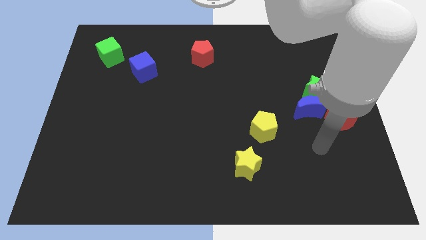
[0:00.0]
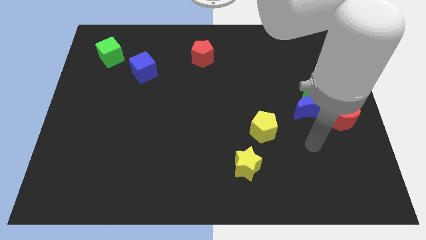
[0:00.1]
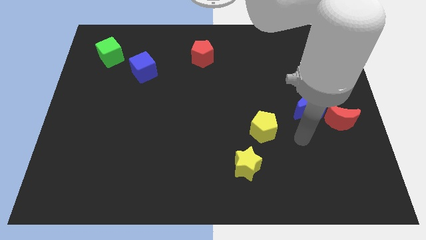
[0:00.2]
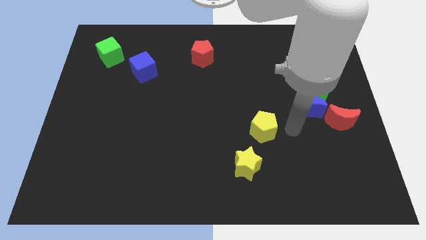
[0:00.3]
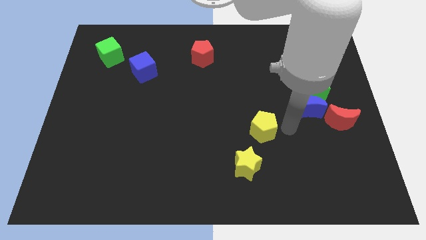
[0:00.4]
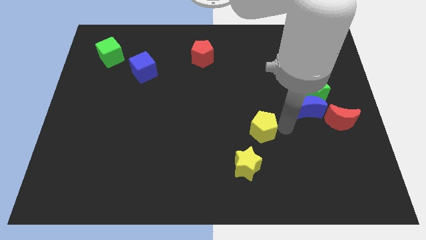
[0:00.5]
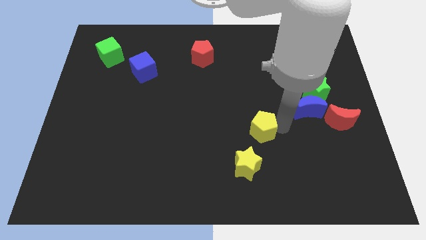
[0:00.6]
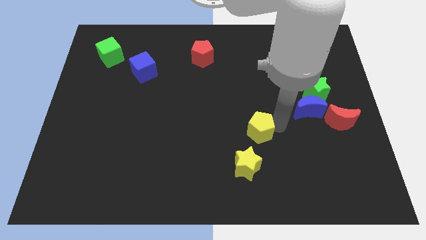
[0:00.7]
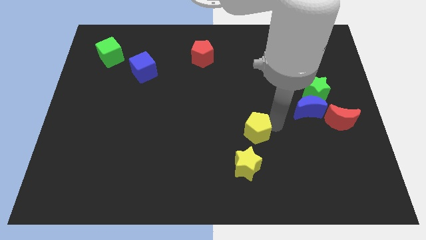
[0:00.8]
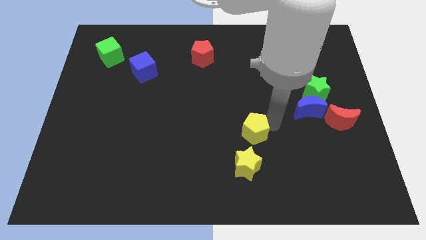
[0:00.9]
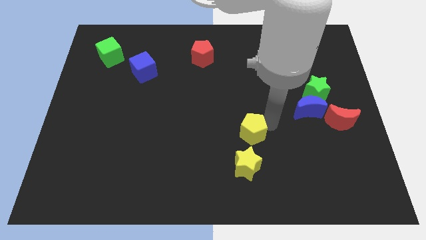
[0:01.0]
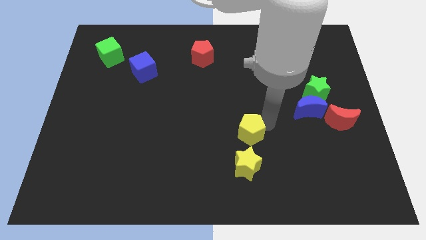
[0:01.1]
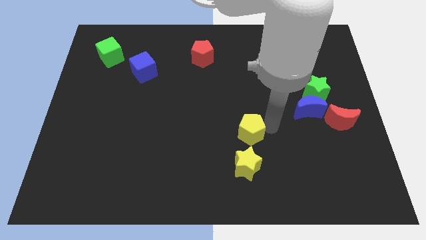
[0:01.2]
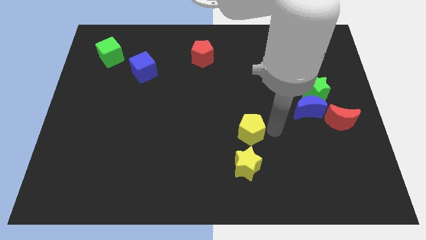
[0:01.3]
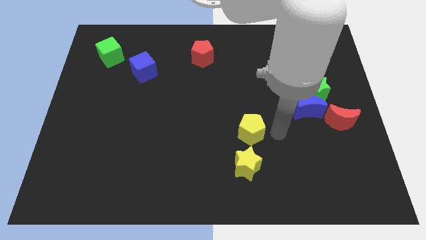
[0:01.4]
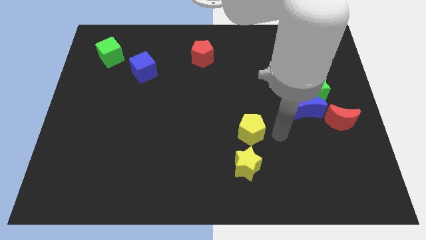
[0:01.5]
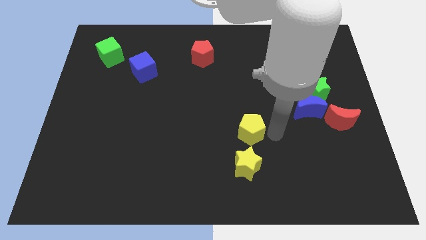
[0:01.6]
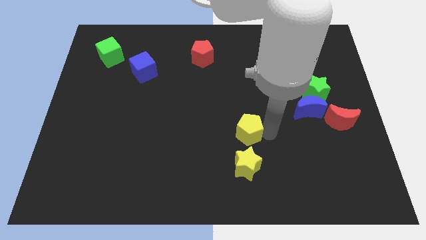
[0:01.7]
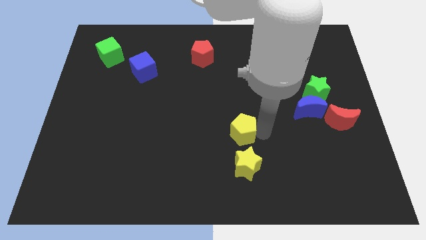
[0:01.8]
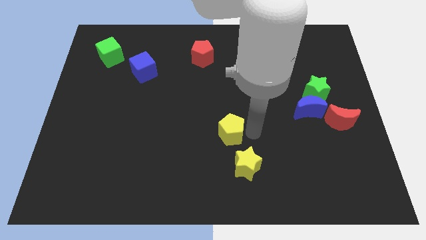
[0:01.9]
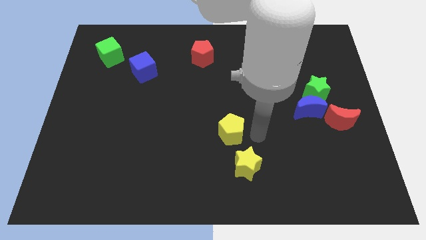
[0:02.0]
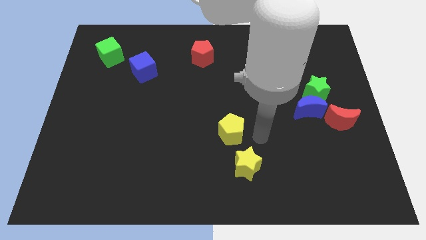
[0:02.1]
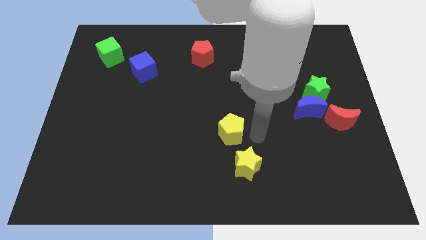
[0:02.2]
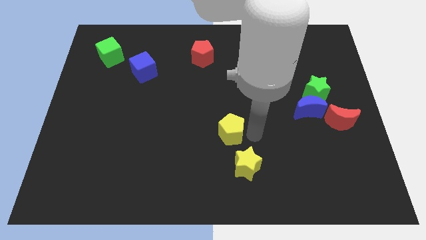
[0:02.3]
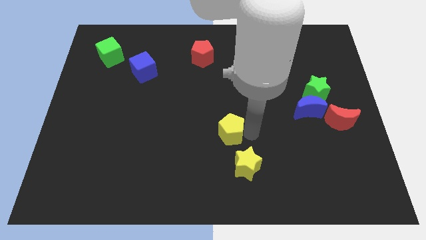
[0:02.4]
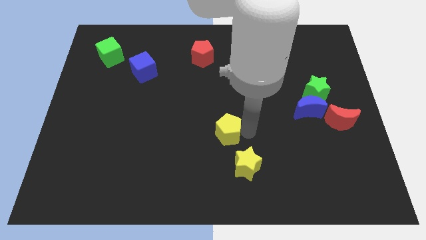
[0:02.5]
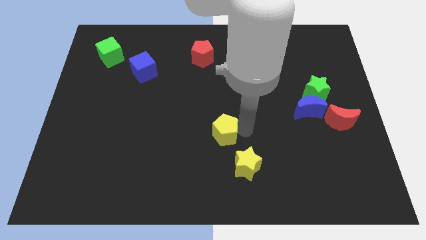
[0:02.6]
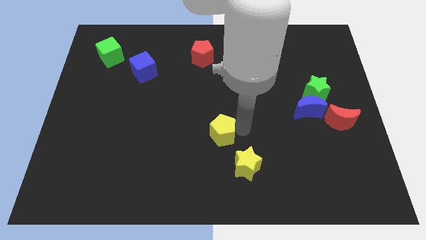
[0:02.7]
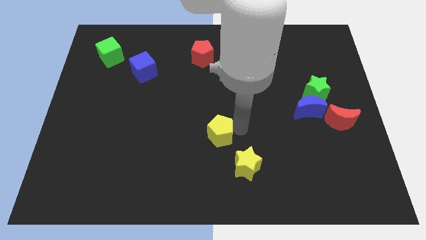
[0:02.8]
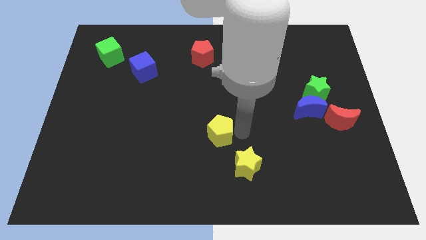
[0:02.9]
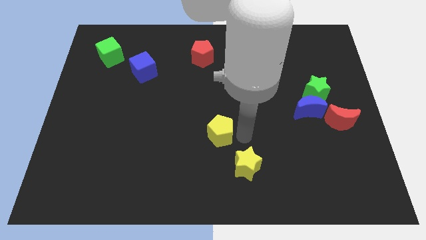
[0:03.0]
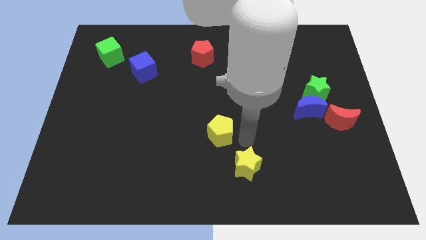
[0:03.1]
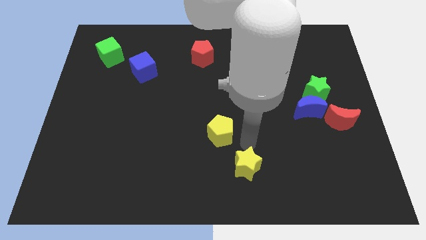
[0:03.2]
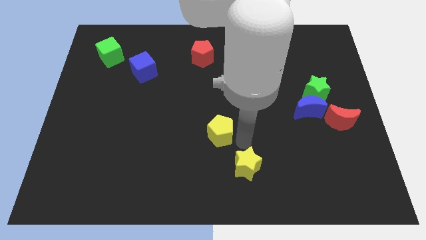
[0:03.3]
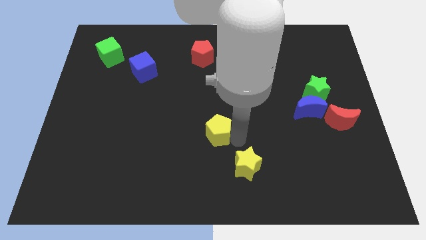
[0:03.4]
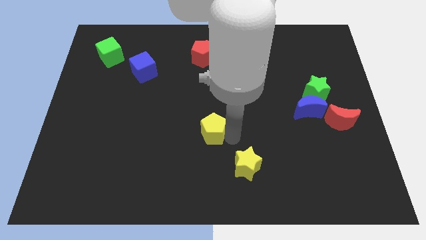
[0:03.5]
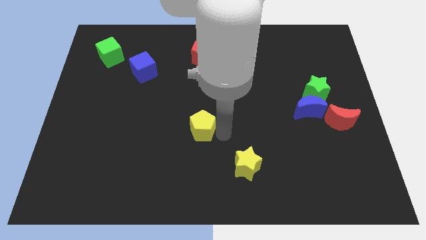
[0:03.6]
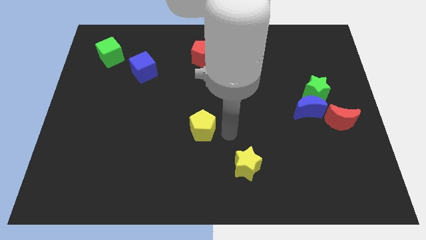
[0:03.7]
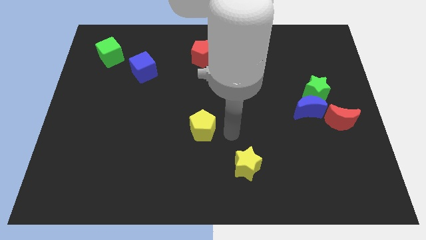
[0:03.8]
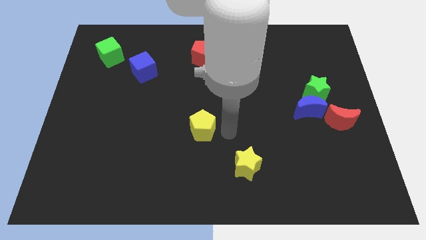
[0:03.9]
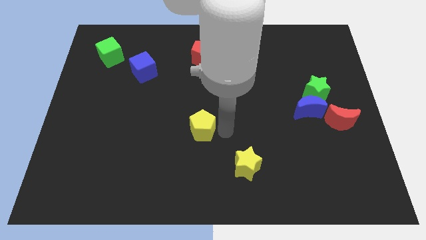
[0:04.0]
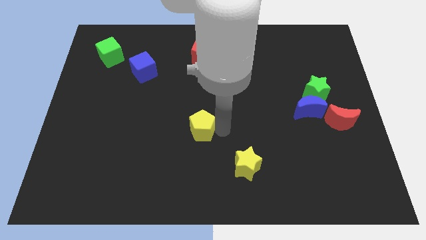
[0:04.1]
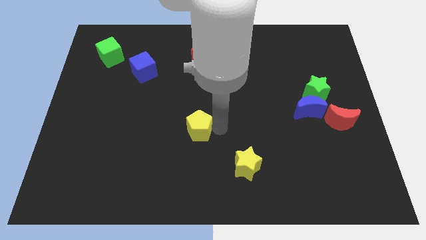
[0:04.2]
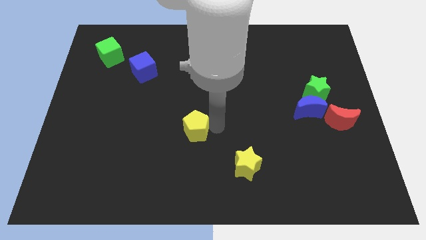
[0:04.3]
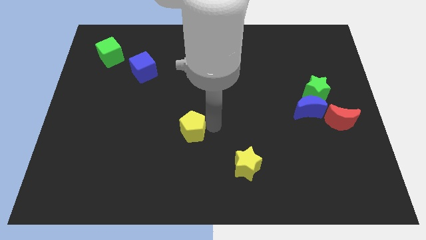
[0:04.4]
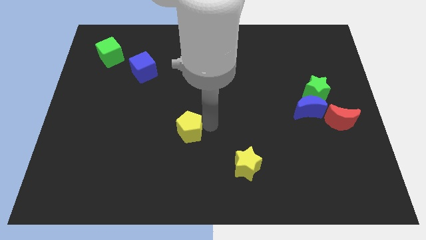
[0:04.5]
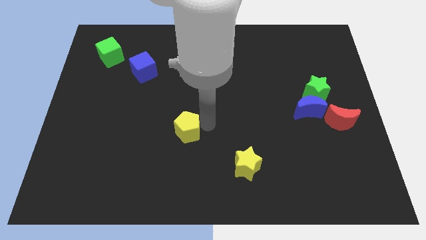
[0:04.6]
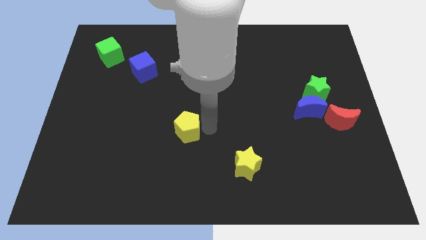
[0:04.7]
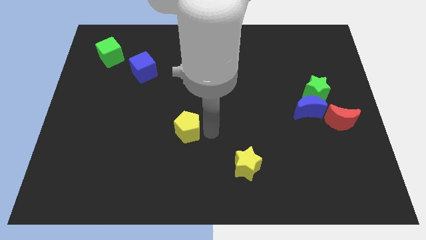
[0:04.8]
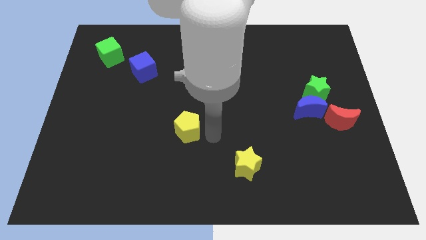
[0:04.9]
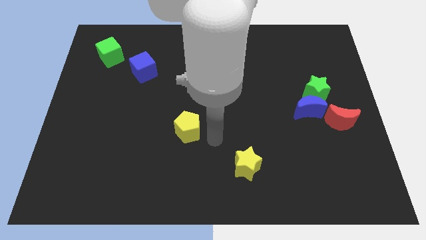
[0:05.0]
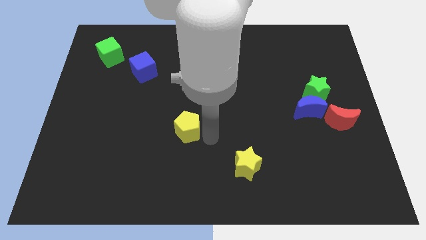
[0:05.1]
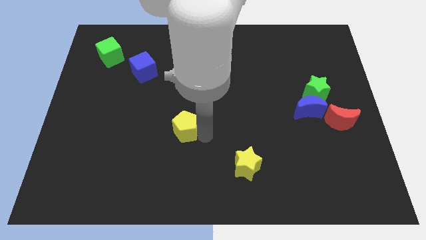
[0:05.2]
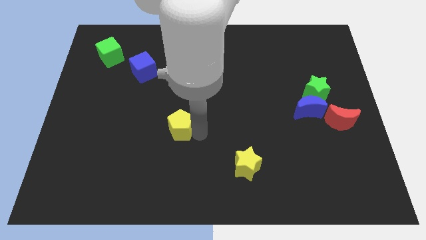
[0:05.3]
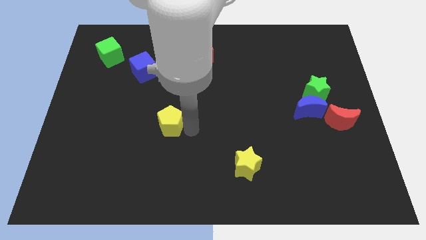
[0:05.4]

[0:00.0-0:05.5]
slide the yellow pentagon to the left

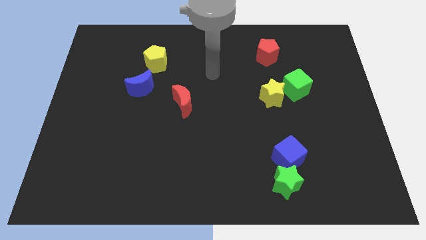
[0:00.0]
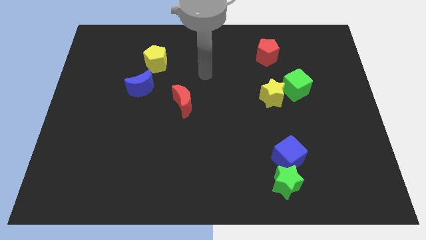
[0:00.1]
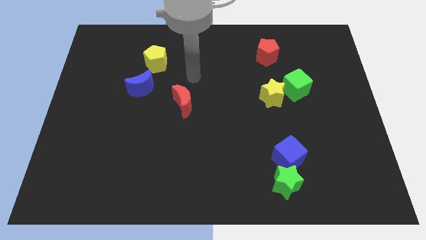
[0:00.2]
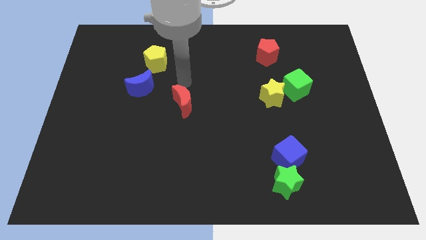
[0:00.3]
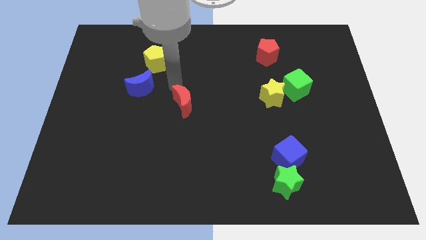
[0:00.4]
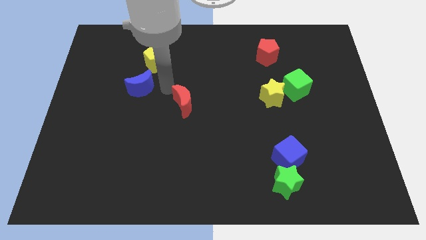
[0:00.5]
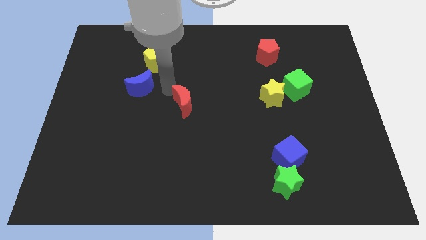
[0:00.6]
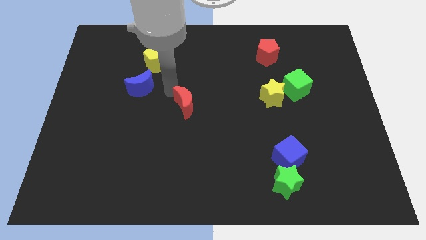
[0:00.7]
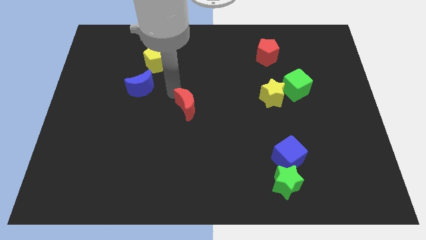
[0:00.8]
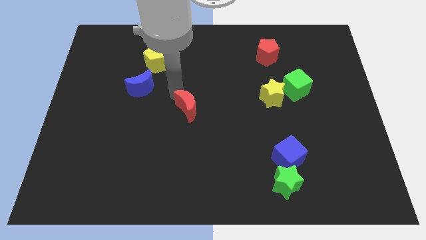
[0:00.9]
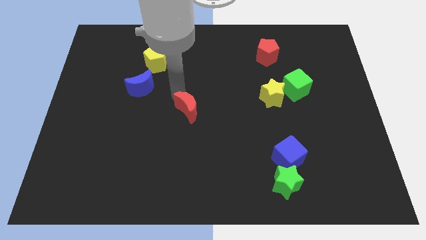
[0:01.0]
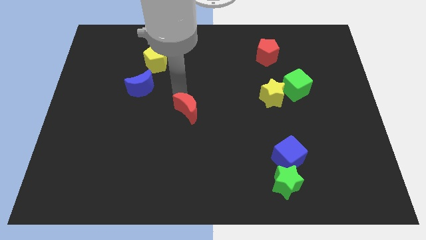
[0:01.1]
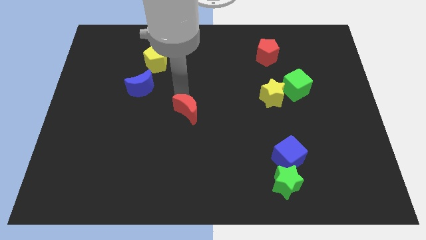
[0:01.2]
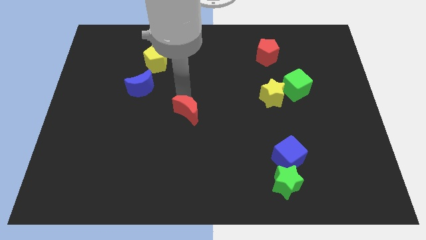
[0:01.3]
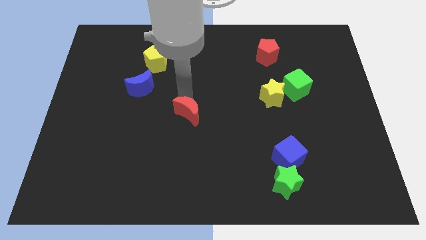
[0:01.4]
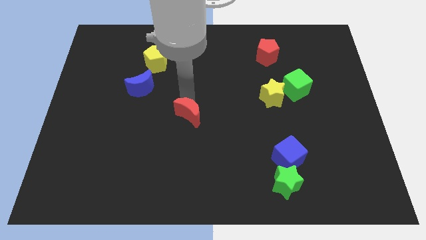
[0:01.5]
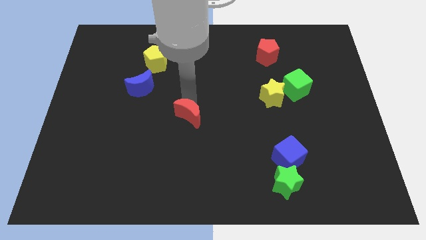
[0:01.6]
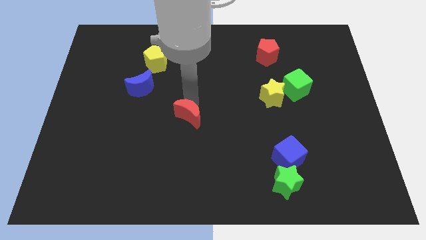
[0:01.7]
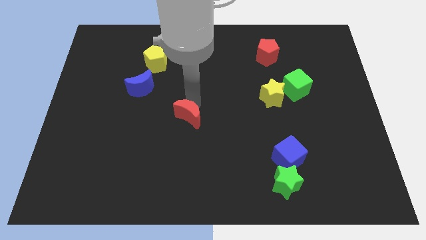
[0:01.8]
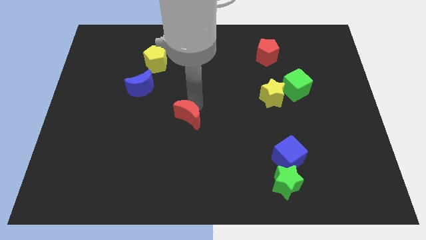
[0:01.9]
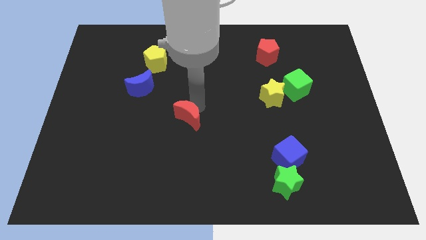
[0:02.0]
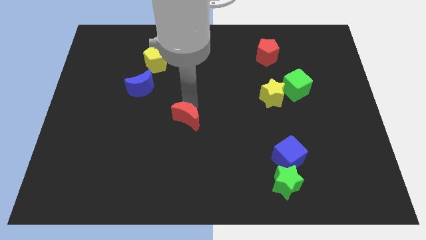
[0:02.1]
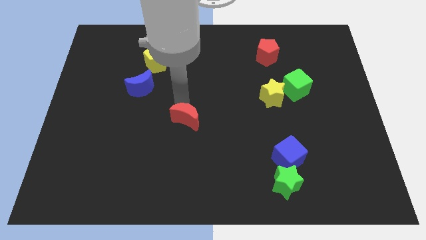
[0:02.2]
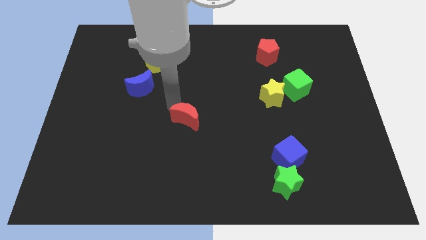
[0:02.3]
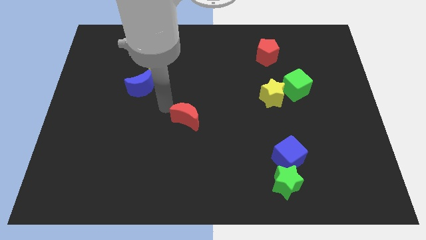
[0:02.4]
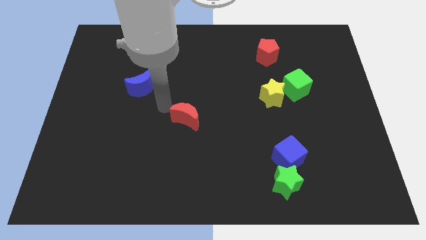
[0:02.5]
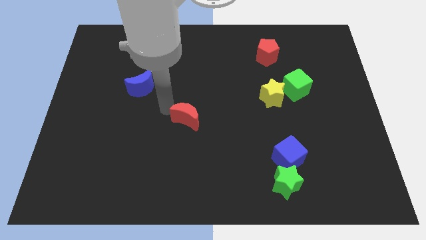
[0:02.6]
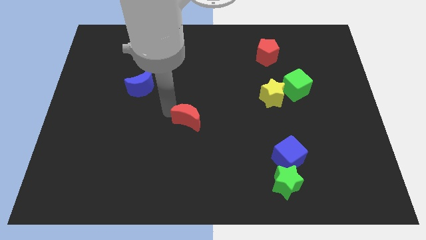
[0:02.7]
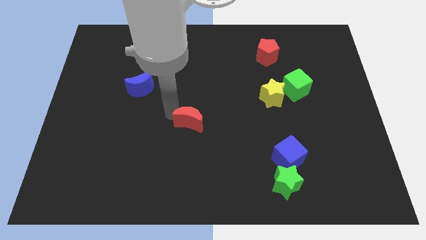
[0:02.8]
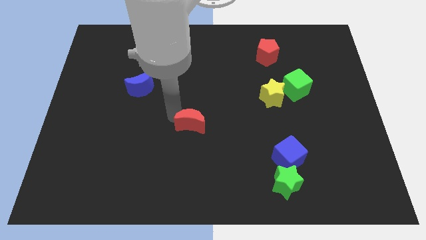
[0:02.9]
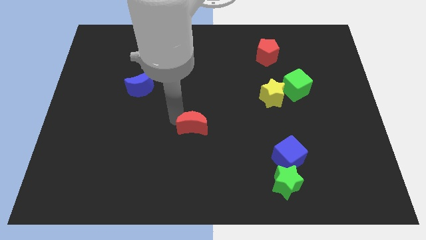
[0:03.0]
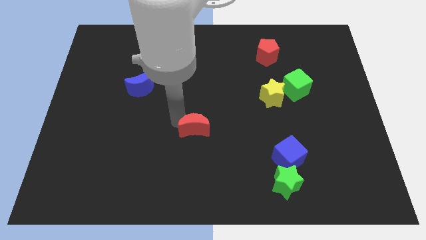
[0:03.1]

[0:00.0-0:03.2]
move the red moon downwards and to the right a little
